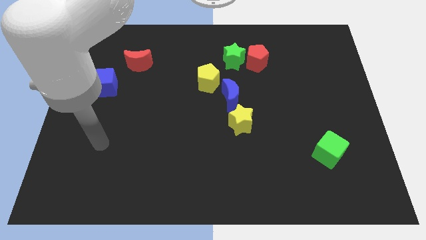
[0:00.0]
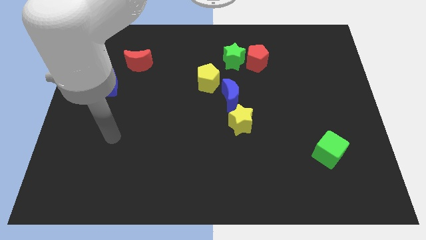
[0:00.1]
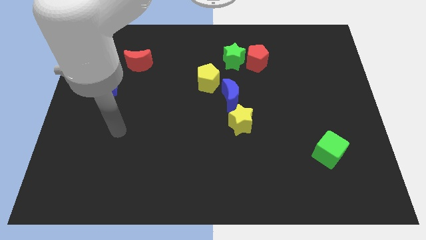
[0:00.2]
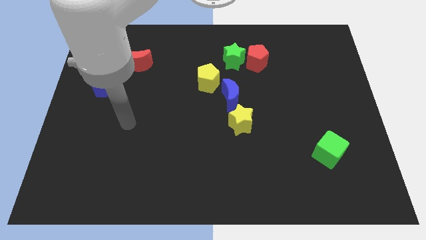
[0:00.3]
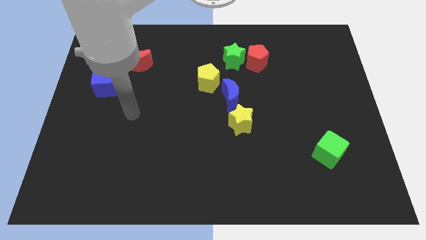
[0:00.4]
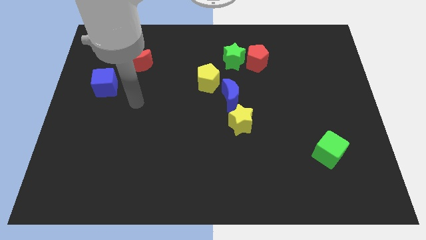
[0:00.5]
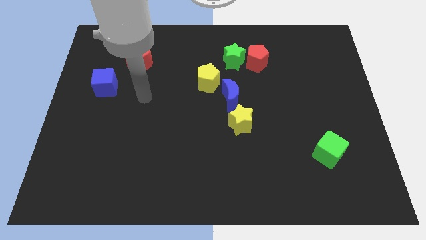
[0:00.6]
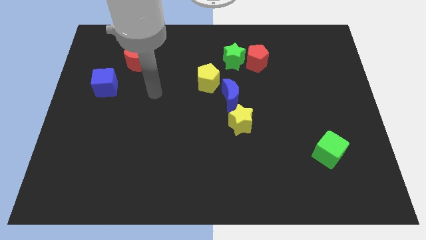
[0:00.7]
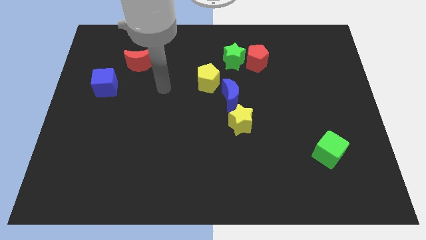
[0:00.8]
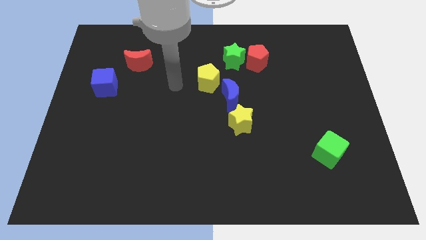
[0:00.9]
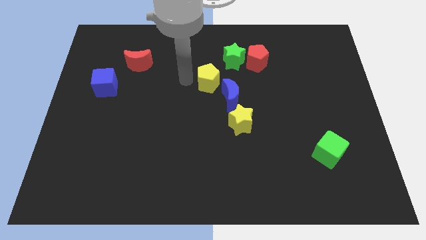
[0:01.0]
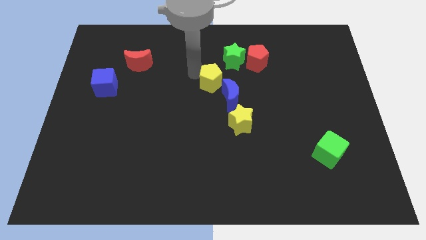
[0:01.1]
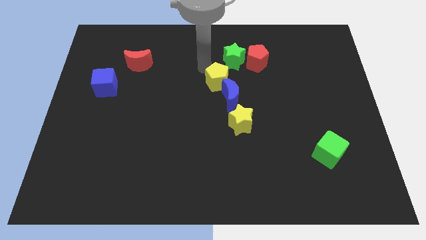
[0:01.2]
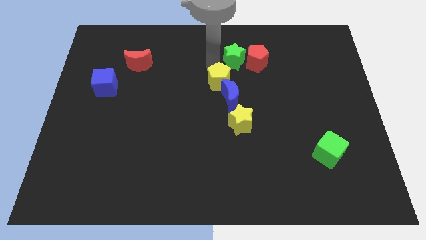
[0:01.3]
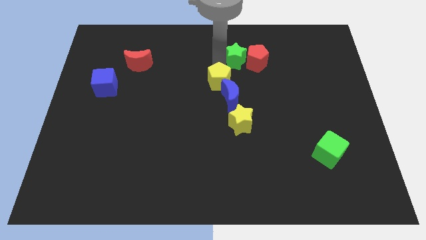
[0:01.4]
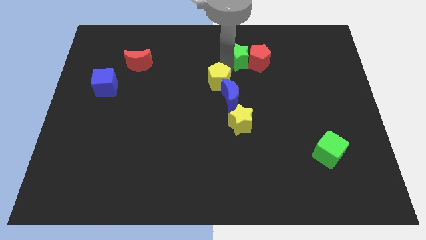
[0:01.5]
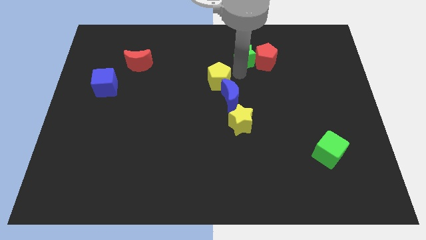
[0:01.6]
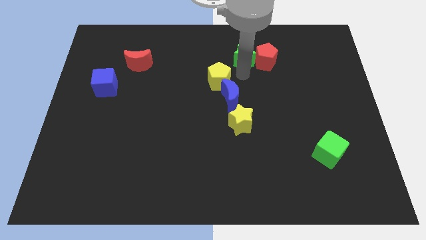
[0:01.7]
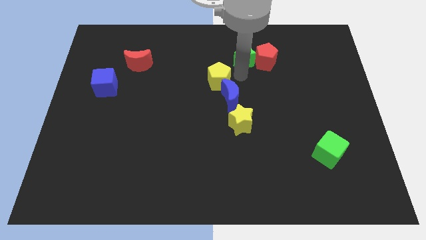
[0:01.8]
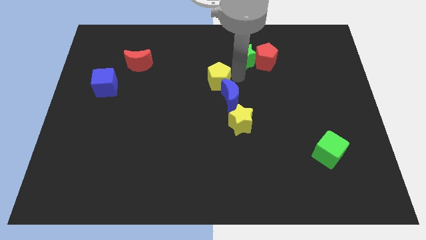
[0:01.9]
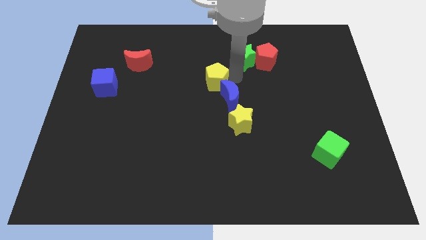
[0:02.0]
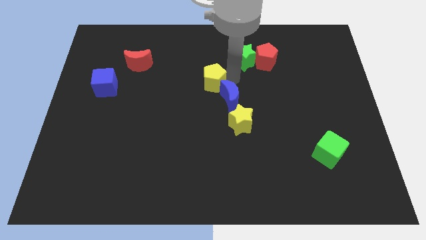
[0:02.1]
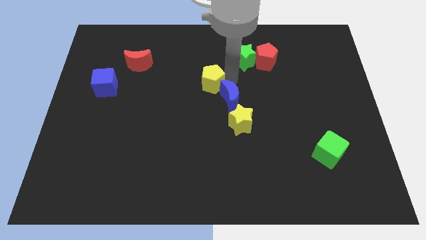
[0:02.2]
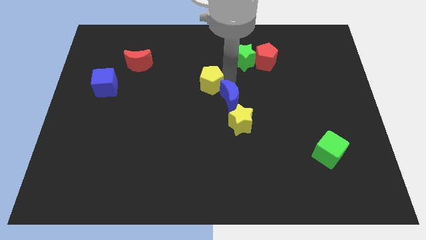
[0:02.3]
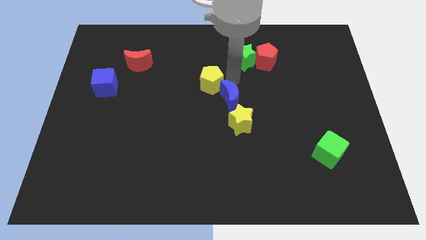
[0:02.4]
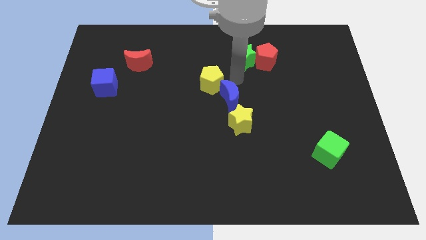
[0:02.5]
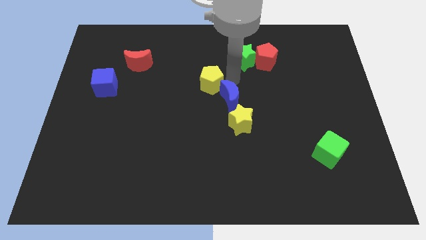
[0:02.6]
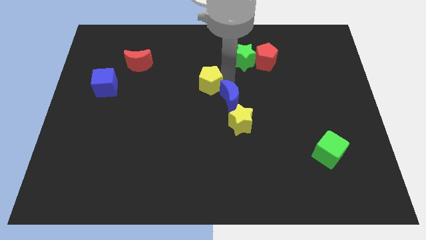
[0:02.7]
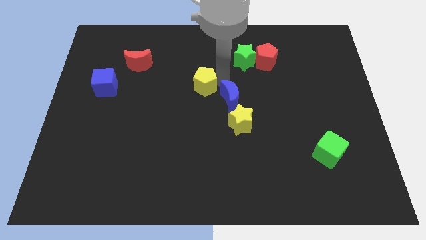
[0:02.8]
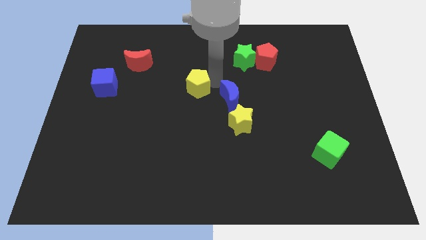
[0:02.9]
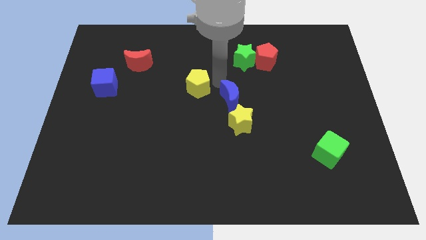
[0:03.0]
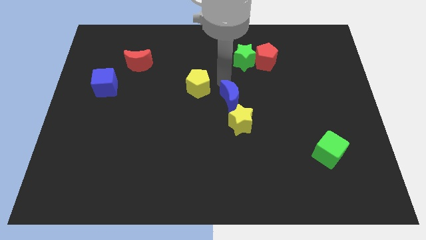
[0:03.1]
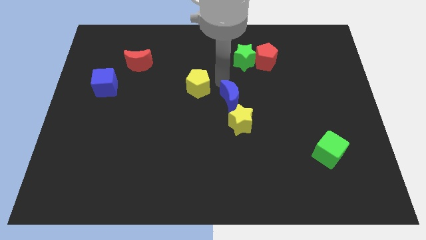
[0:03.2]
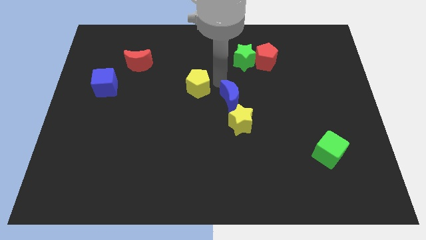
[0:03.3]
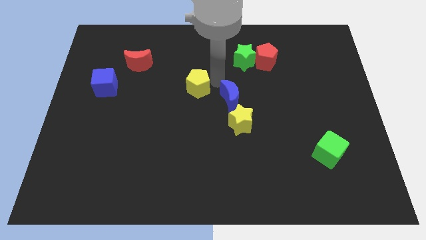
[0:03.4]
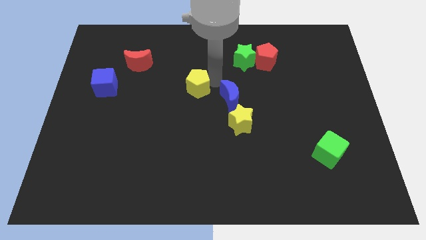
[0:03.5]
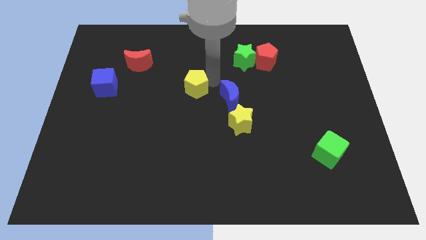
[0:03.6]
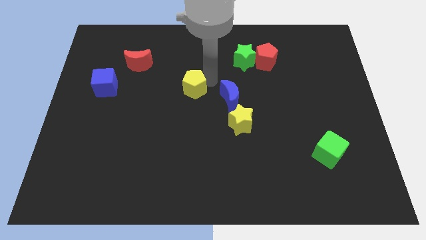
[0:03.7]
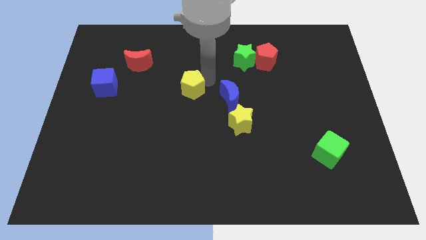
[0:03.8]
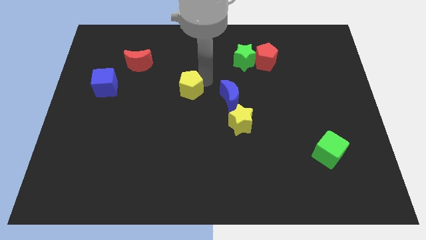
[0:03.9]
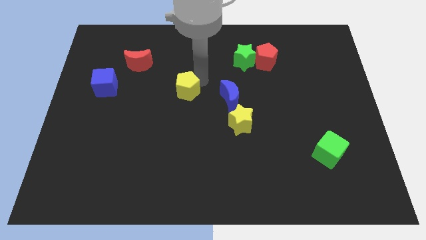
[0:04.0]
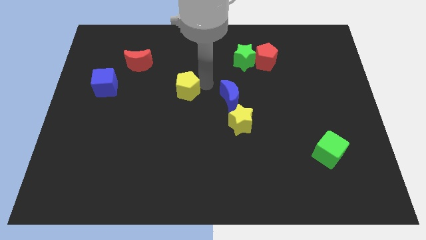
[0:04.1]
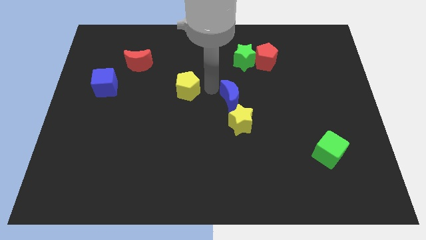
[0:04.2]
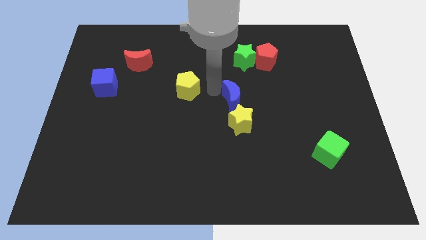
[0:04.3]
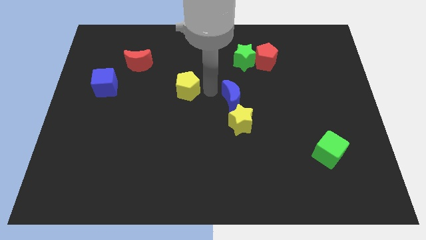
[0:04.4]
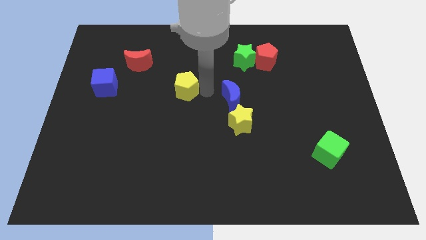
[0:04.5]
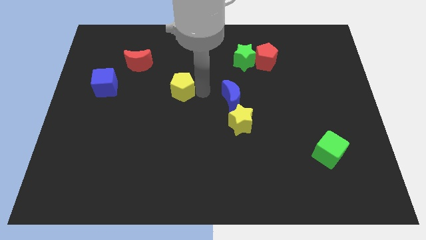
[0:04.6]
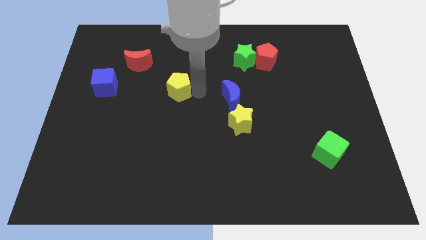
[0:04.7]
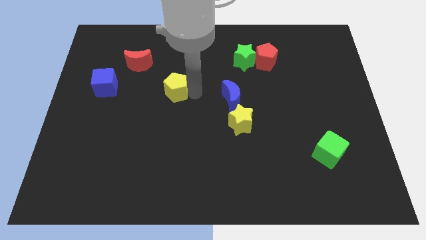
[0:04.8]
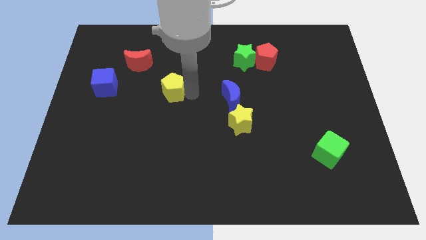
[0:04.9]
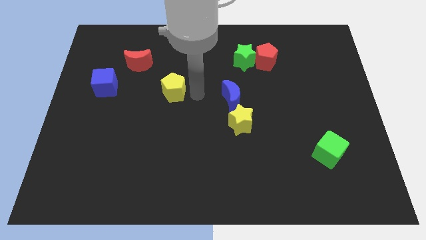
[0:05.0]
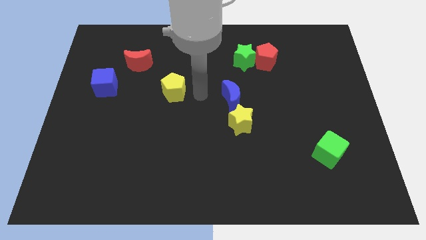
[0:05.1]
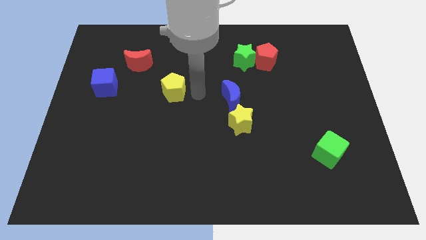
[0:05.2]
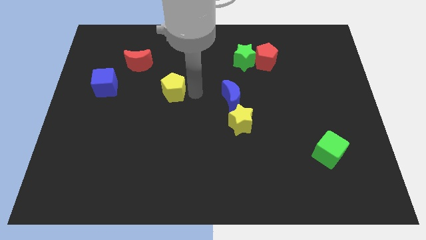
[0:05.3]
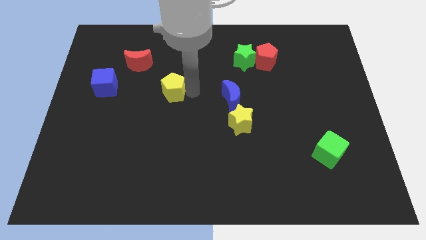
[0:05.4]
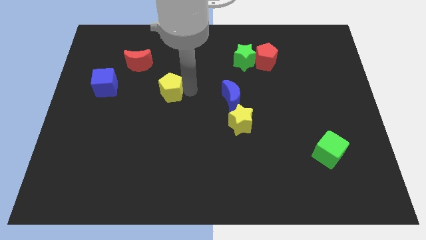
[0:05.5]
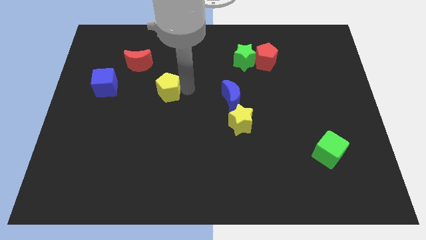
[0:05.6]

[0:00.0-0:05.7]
push the yellow pentagon to the right of the blue cube

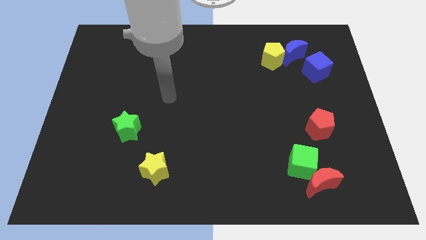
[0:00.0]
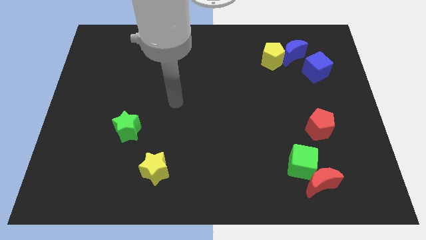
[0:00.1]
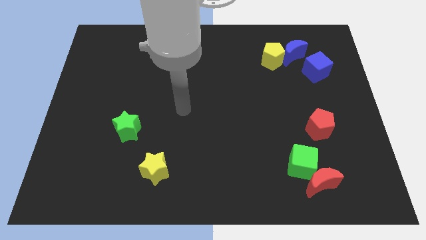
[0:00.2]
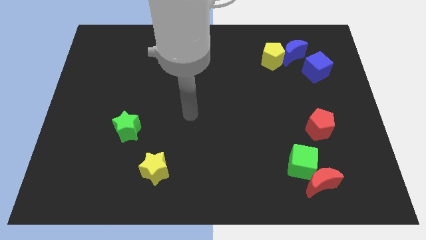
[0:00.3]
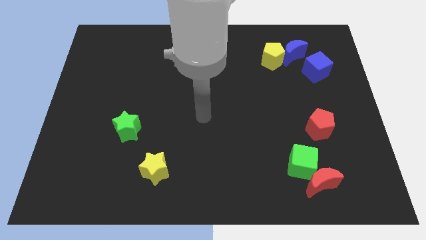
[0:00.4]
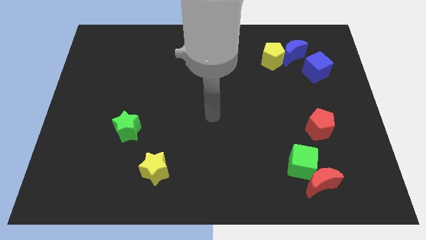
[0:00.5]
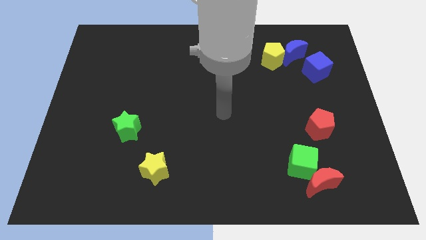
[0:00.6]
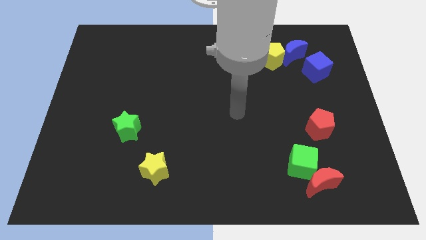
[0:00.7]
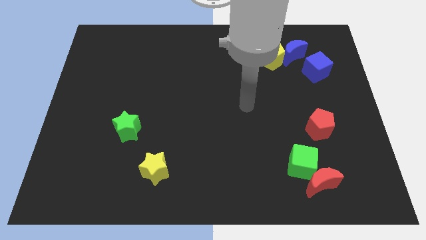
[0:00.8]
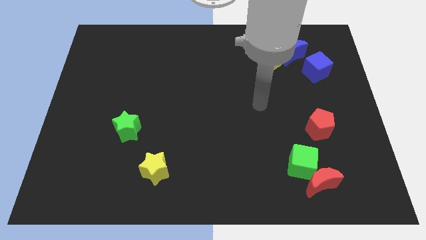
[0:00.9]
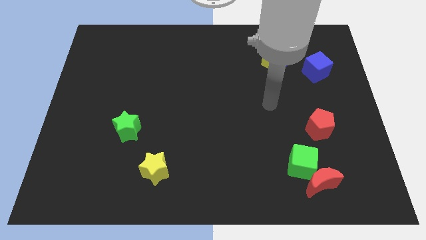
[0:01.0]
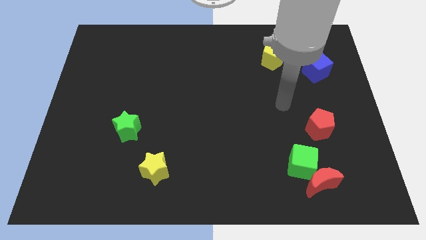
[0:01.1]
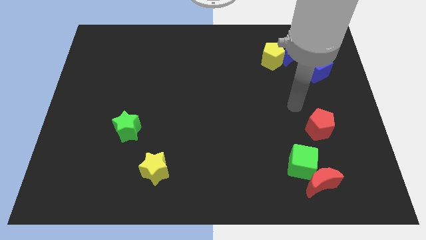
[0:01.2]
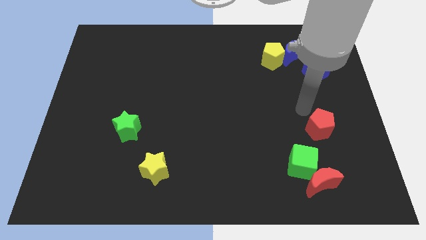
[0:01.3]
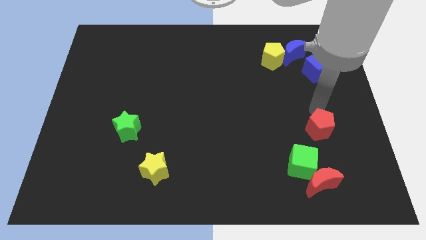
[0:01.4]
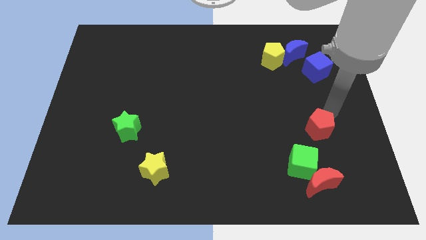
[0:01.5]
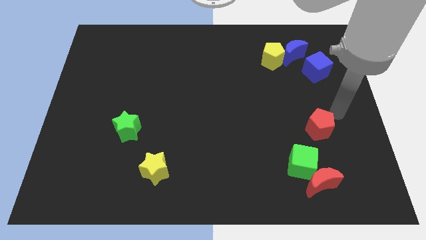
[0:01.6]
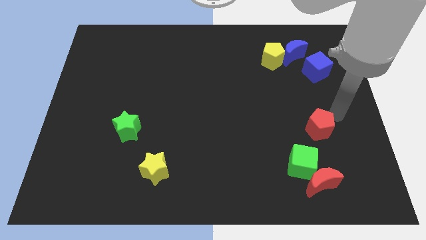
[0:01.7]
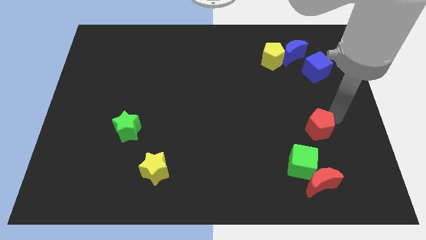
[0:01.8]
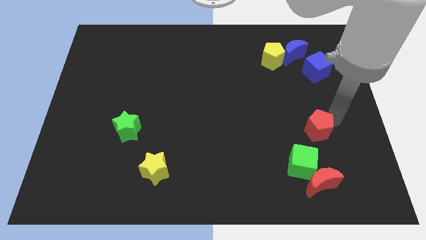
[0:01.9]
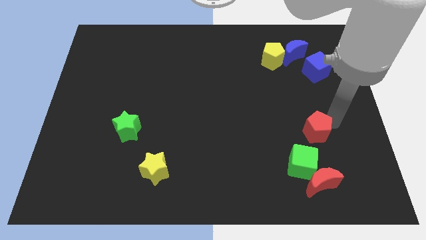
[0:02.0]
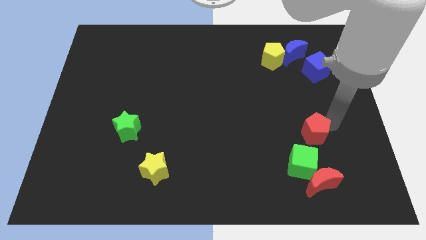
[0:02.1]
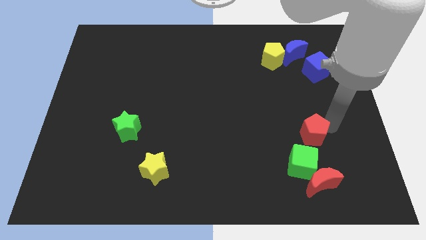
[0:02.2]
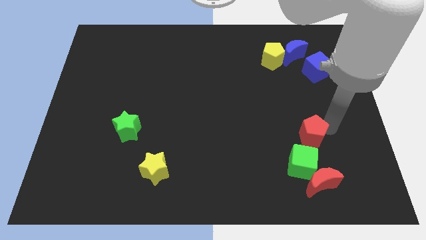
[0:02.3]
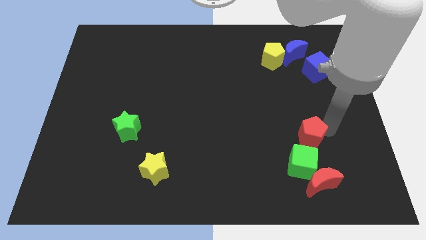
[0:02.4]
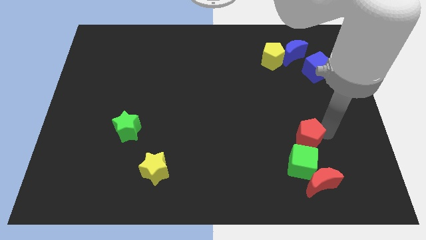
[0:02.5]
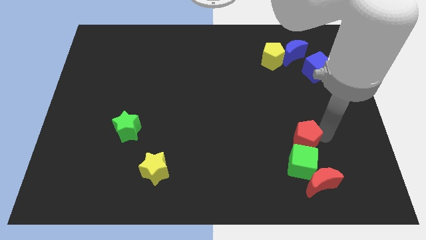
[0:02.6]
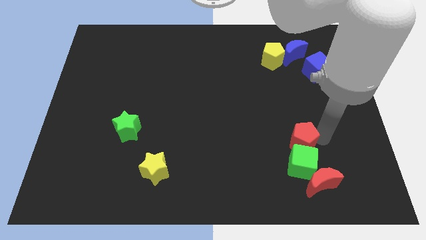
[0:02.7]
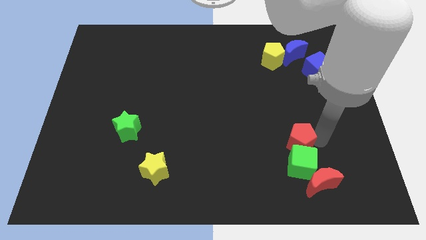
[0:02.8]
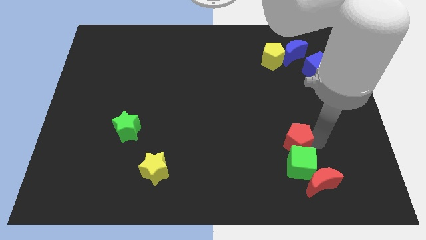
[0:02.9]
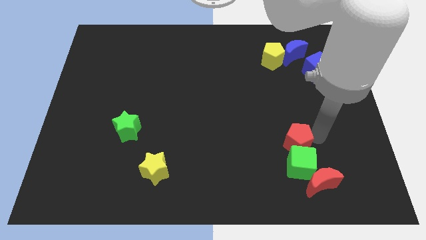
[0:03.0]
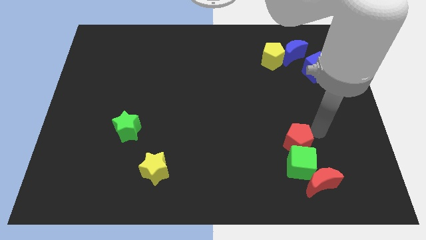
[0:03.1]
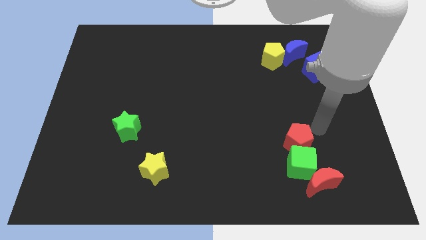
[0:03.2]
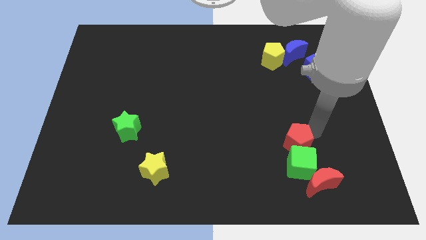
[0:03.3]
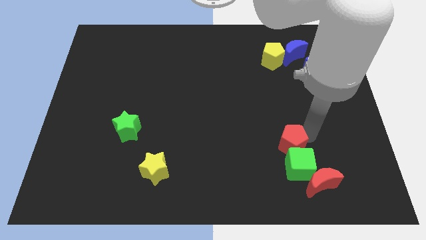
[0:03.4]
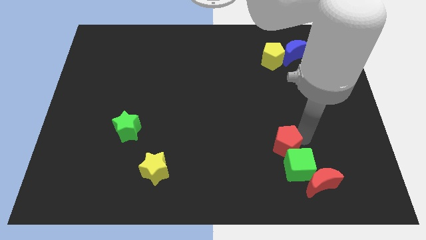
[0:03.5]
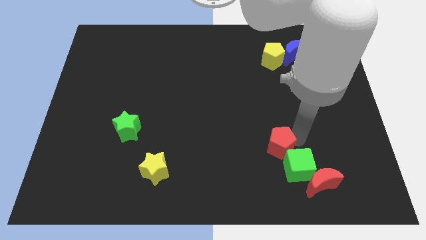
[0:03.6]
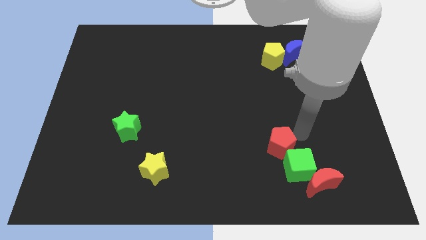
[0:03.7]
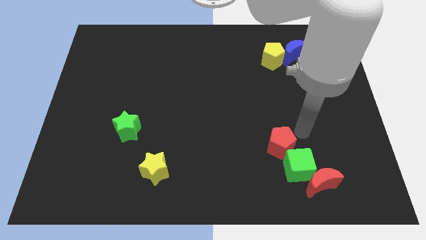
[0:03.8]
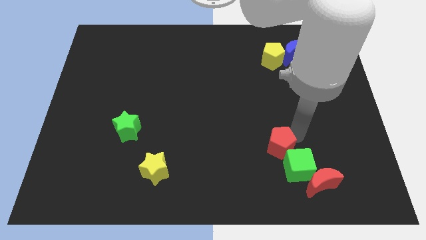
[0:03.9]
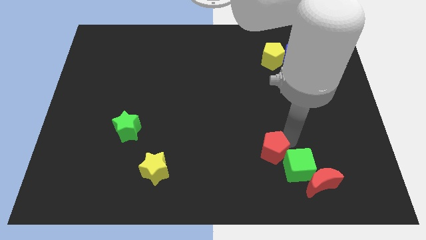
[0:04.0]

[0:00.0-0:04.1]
slide the red pentagon just left of the green cube
